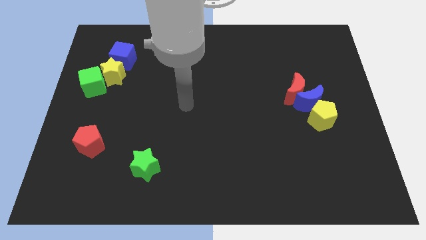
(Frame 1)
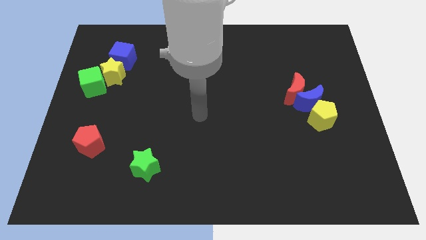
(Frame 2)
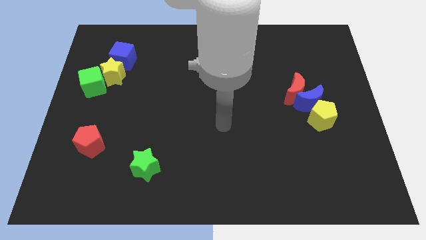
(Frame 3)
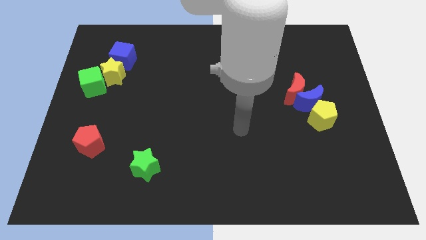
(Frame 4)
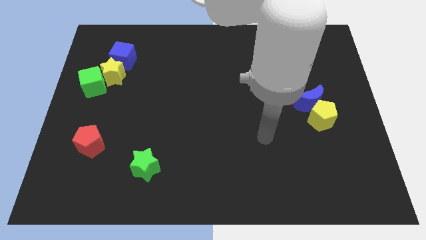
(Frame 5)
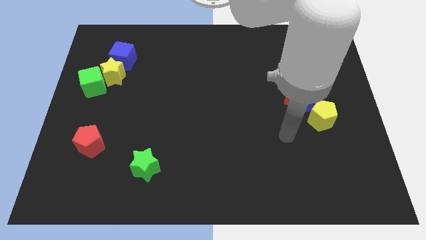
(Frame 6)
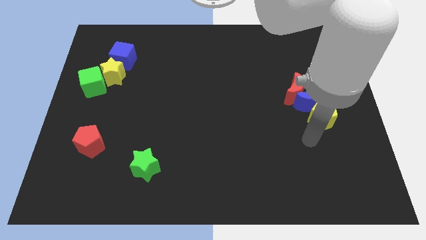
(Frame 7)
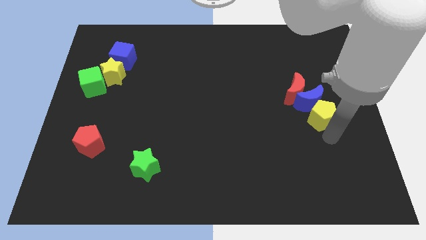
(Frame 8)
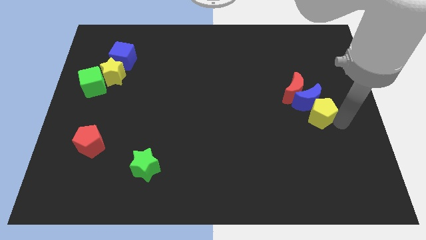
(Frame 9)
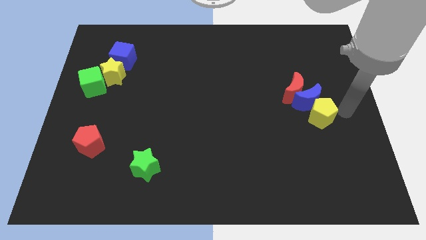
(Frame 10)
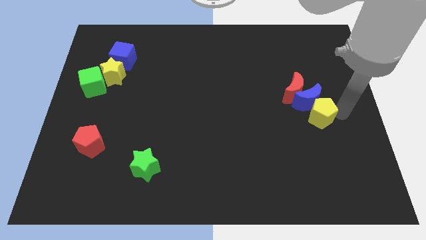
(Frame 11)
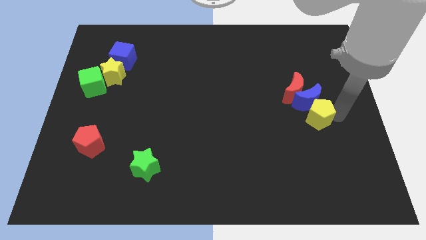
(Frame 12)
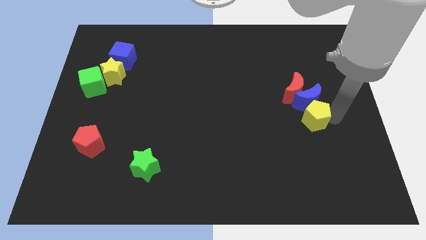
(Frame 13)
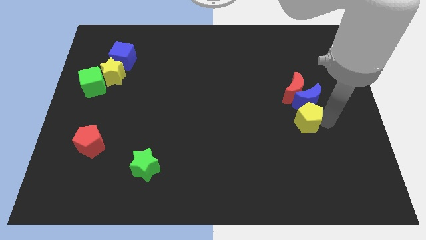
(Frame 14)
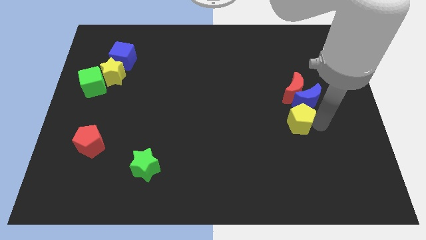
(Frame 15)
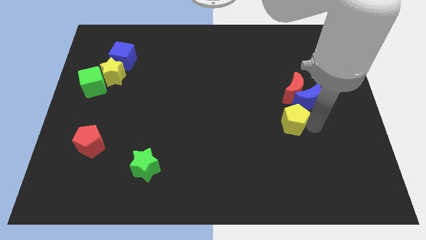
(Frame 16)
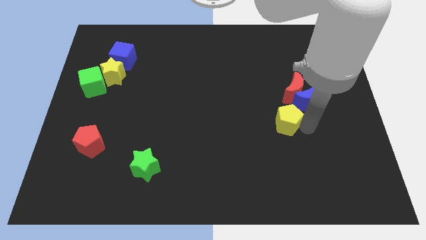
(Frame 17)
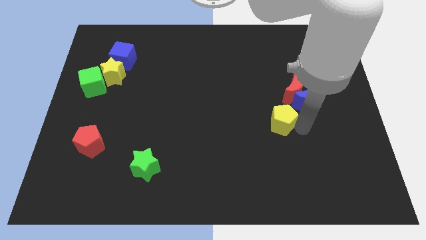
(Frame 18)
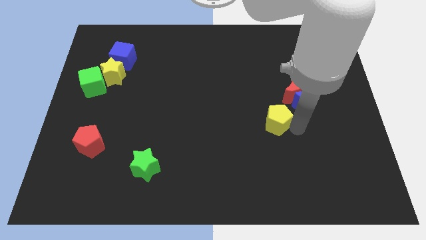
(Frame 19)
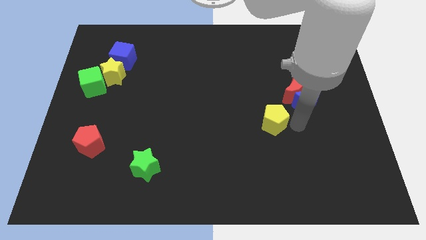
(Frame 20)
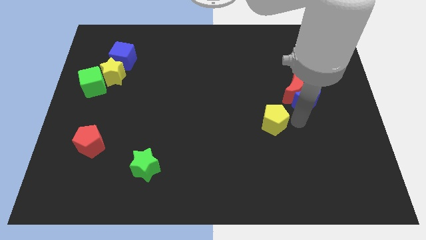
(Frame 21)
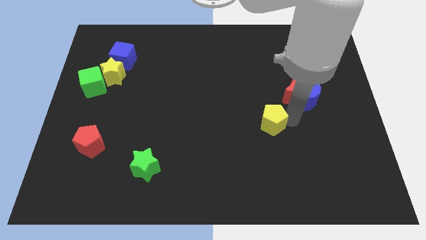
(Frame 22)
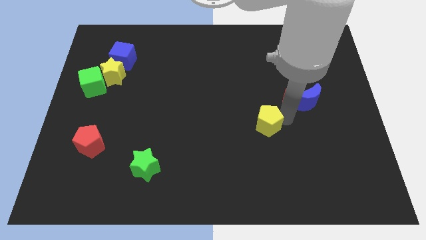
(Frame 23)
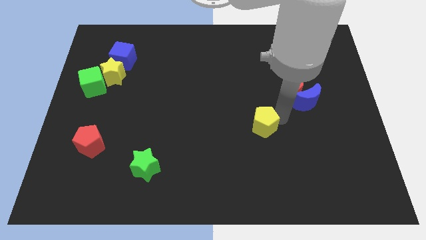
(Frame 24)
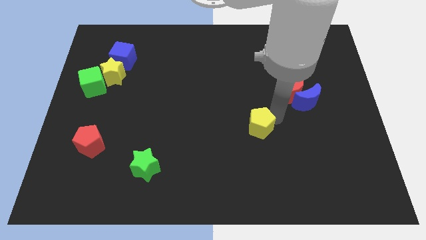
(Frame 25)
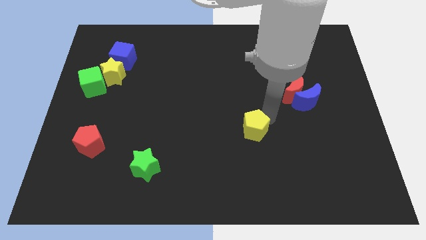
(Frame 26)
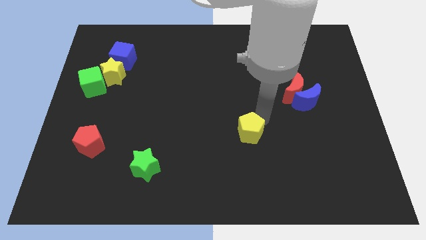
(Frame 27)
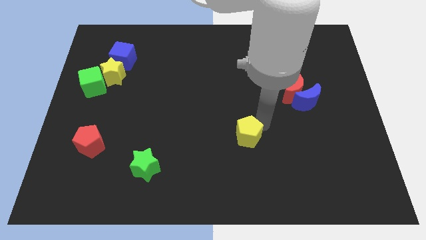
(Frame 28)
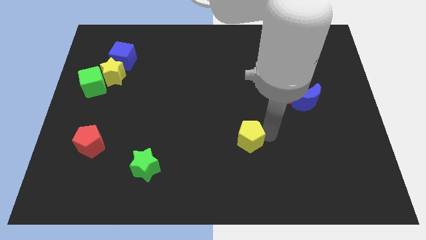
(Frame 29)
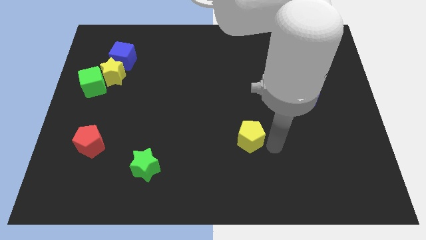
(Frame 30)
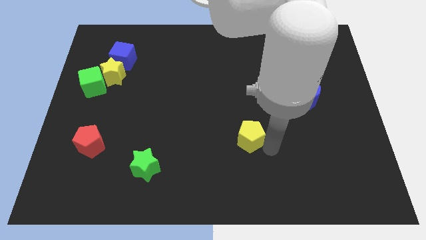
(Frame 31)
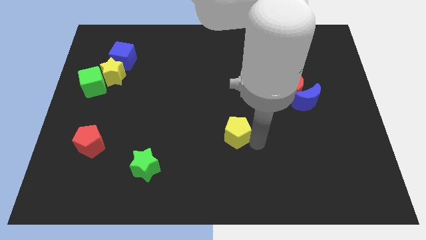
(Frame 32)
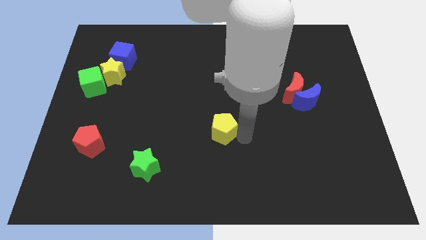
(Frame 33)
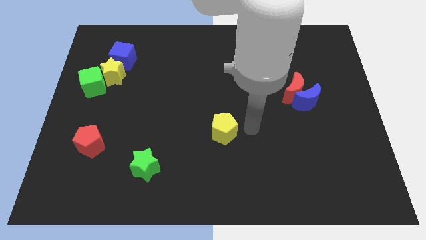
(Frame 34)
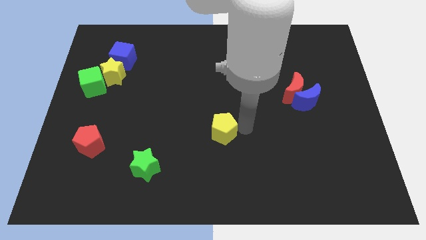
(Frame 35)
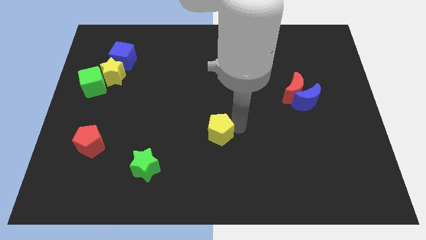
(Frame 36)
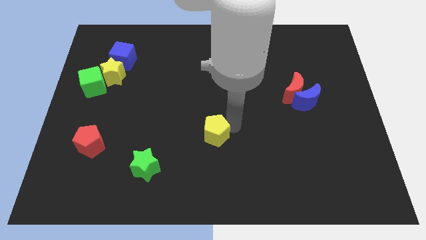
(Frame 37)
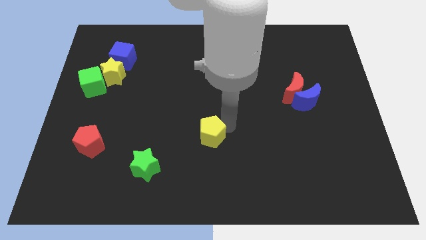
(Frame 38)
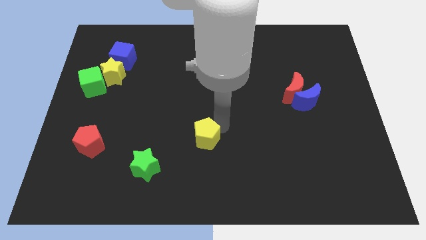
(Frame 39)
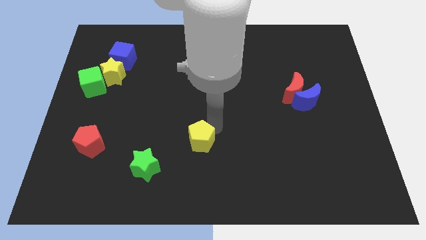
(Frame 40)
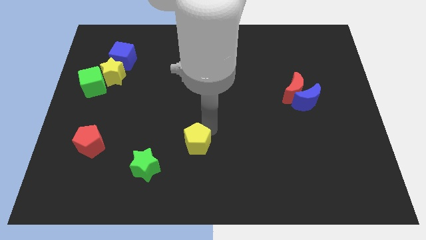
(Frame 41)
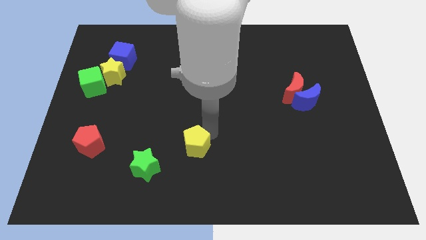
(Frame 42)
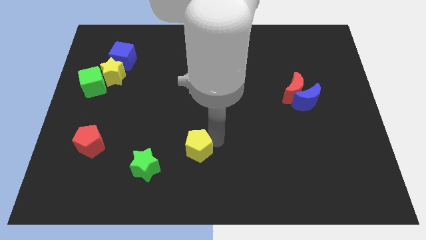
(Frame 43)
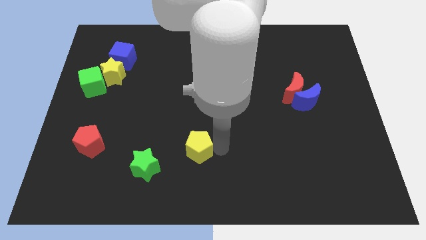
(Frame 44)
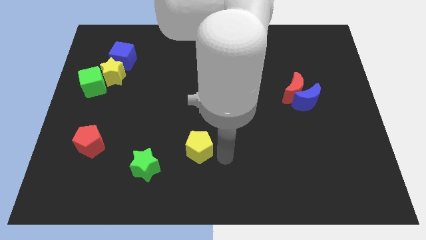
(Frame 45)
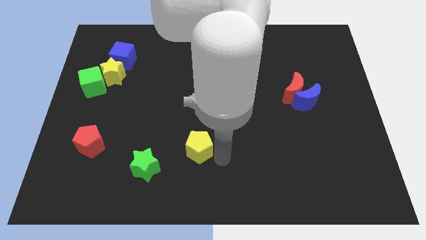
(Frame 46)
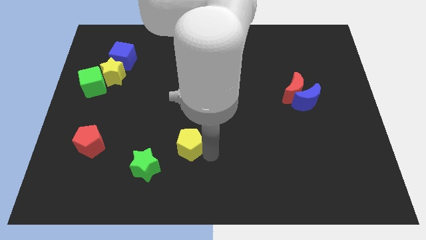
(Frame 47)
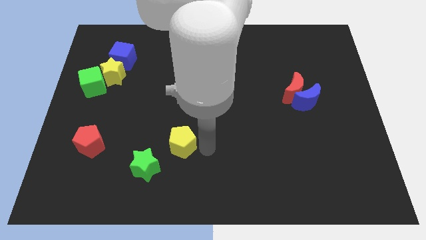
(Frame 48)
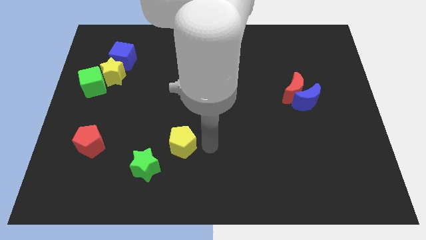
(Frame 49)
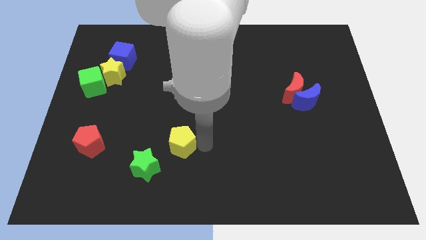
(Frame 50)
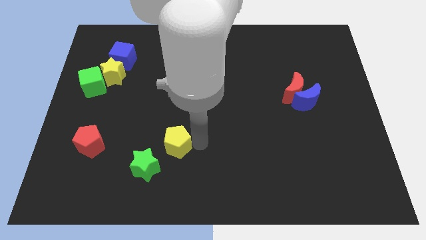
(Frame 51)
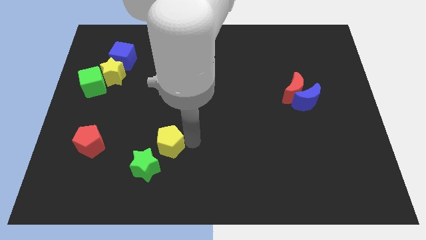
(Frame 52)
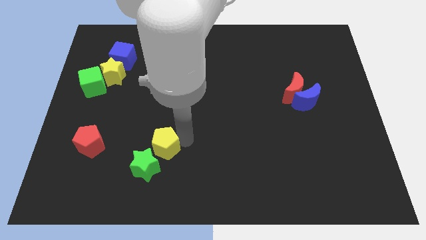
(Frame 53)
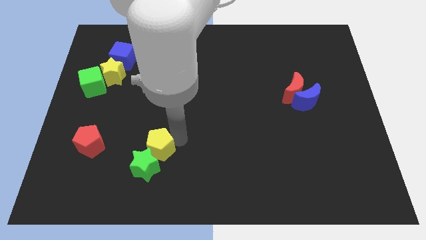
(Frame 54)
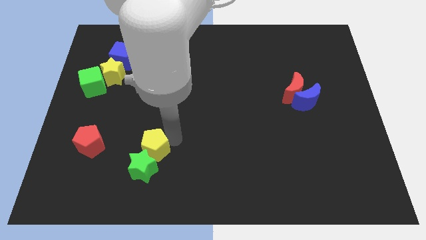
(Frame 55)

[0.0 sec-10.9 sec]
slide the yellow pentagon to the top left side of the green star

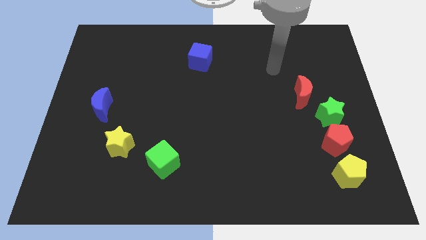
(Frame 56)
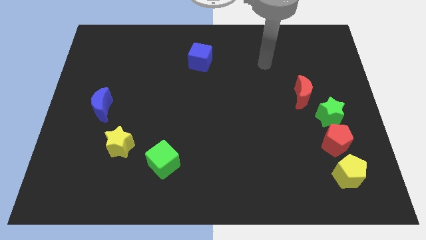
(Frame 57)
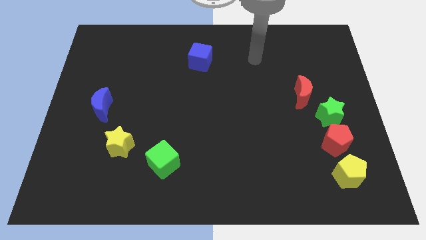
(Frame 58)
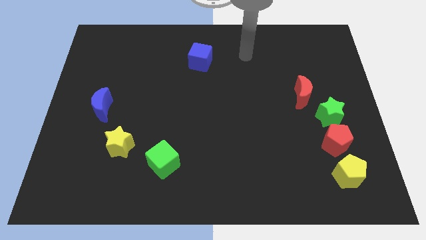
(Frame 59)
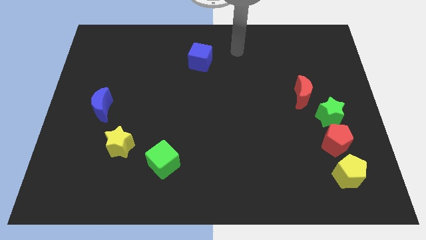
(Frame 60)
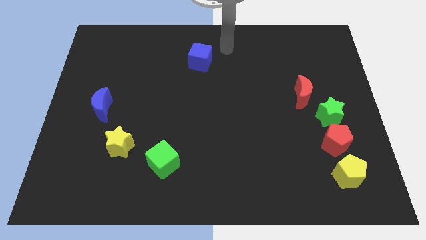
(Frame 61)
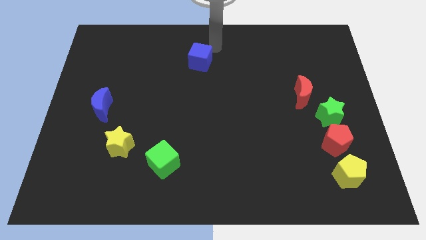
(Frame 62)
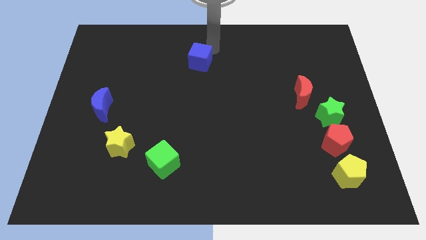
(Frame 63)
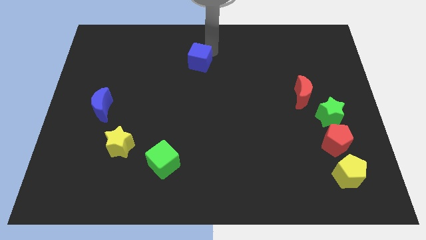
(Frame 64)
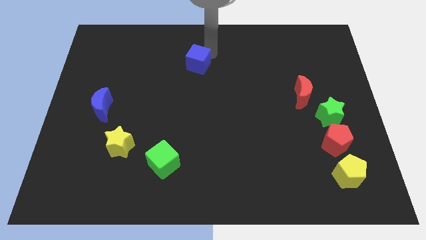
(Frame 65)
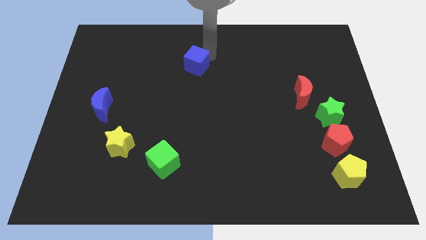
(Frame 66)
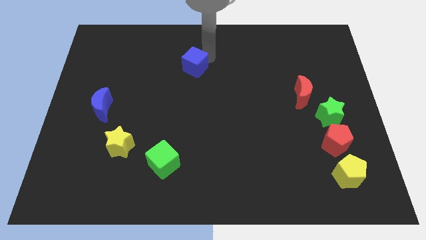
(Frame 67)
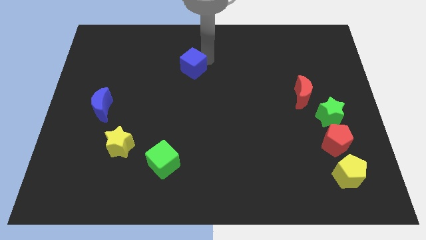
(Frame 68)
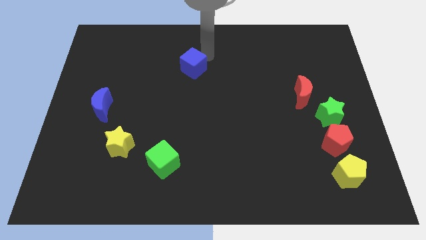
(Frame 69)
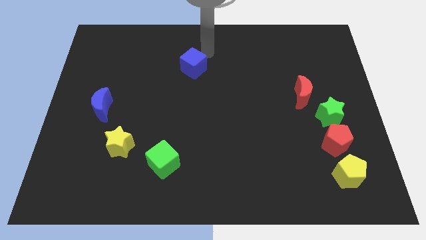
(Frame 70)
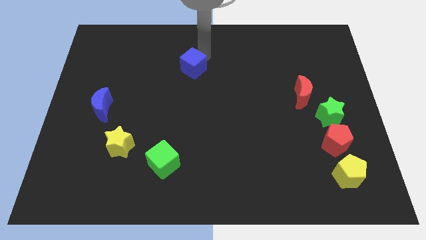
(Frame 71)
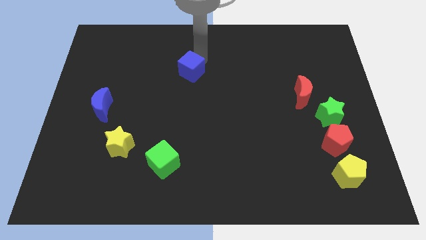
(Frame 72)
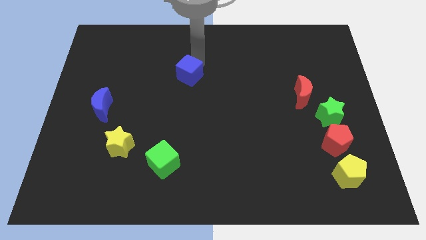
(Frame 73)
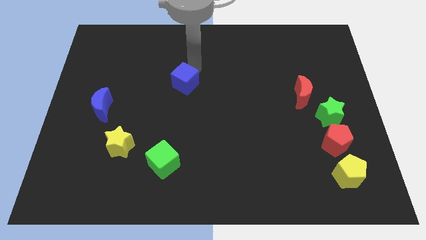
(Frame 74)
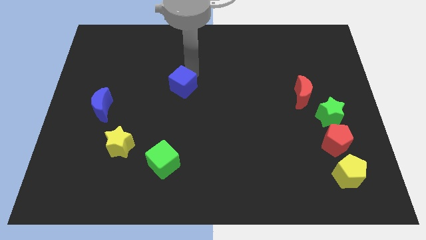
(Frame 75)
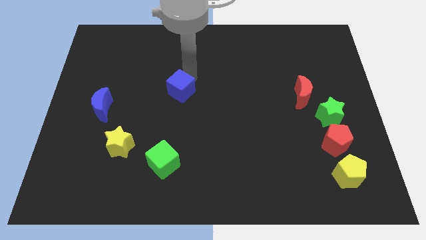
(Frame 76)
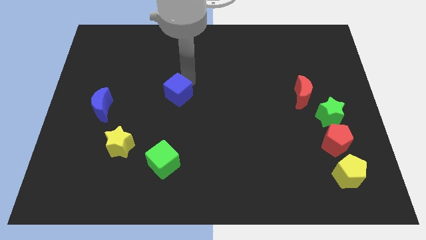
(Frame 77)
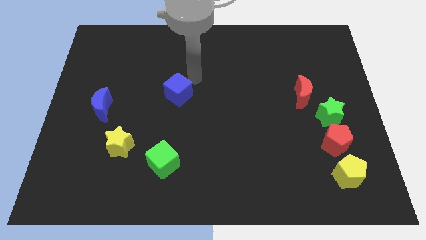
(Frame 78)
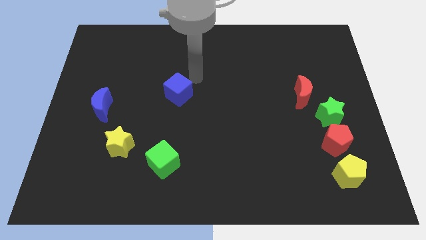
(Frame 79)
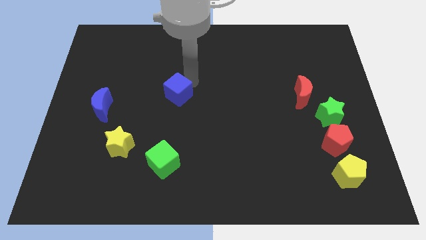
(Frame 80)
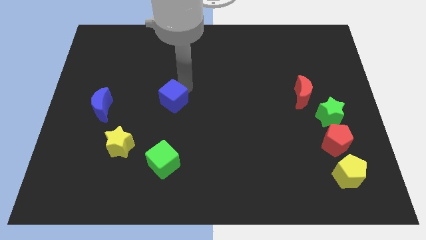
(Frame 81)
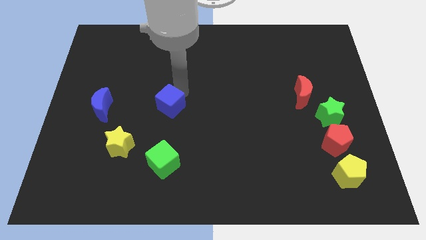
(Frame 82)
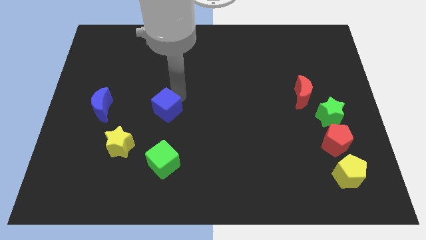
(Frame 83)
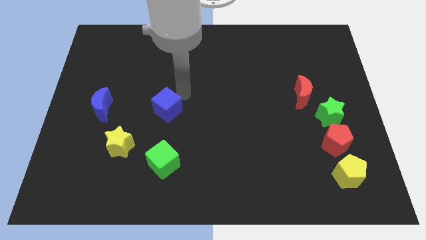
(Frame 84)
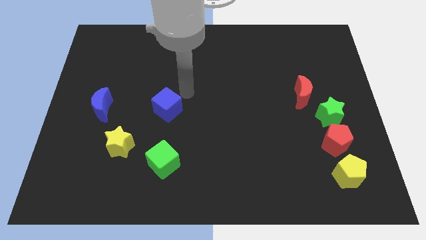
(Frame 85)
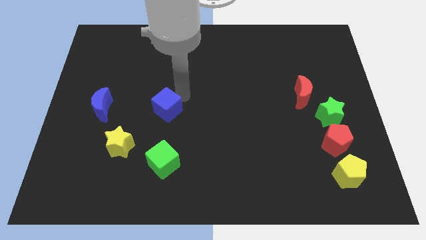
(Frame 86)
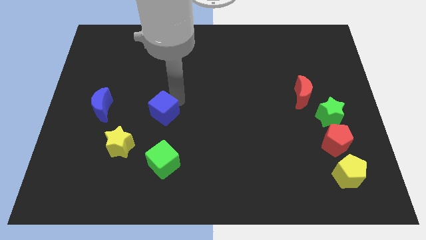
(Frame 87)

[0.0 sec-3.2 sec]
move the blue cube diagonally up and to the right of the yellow star
